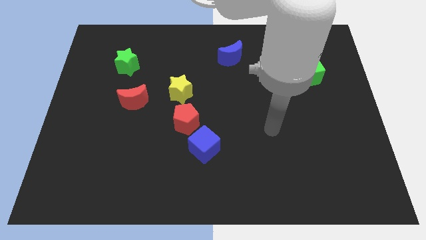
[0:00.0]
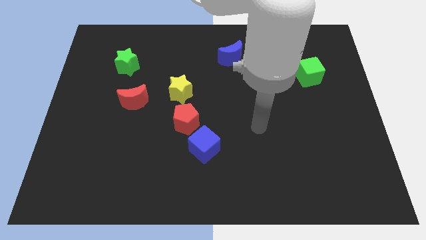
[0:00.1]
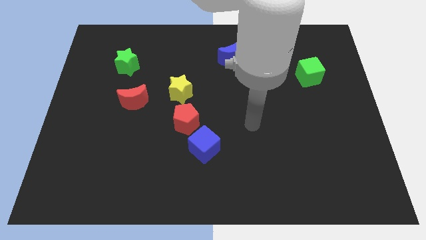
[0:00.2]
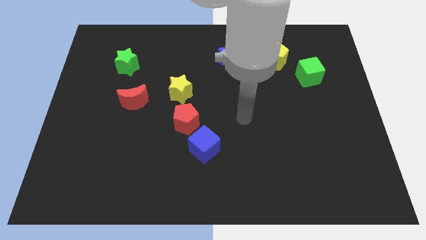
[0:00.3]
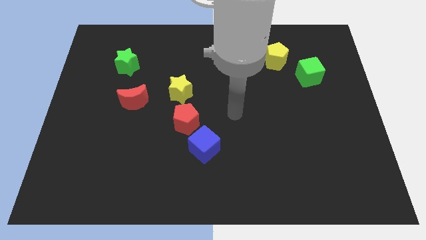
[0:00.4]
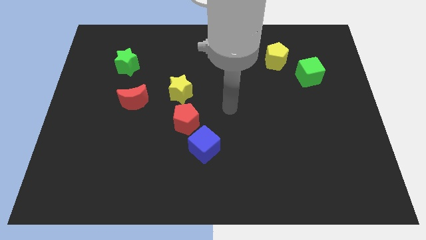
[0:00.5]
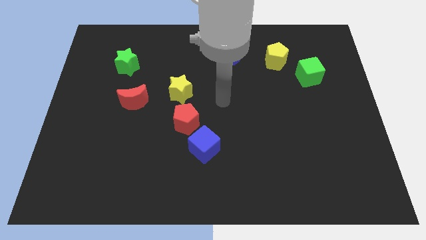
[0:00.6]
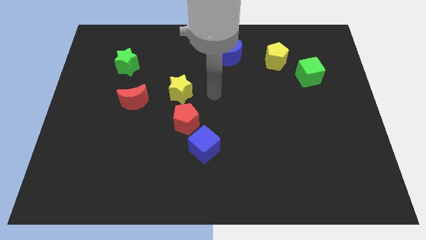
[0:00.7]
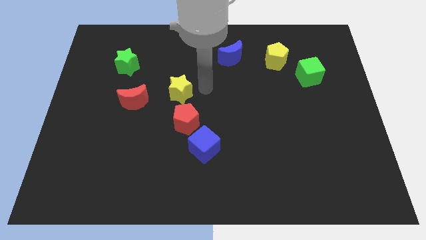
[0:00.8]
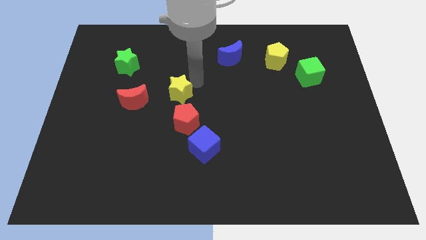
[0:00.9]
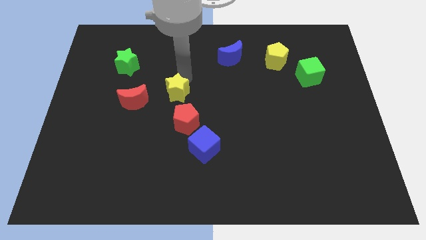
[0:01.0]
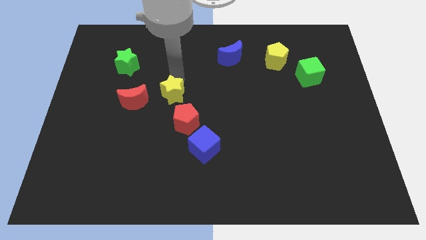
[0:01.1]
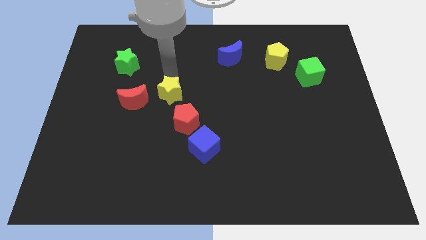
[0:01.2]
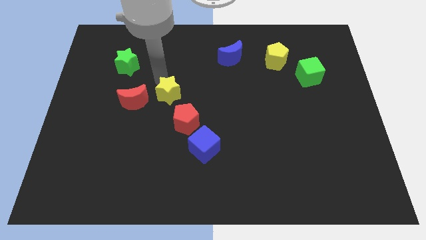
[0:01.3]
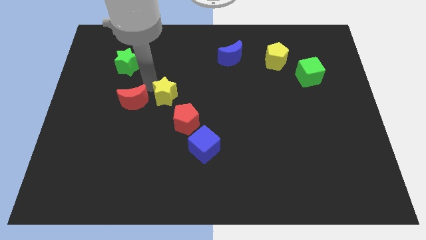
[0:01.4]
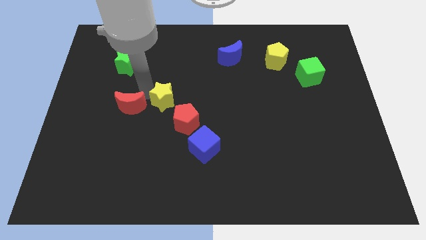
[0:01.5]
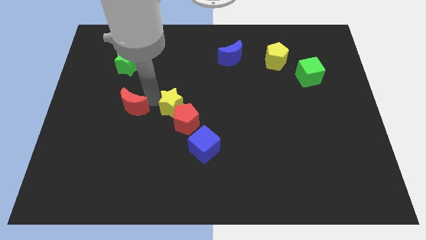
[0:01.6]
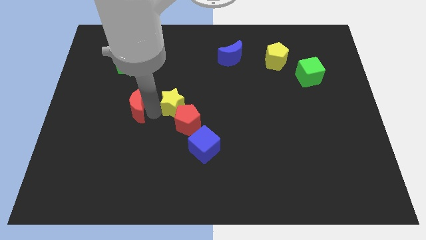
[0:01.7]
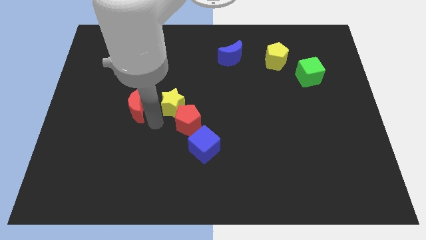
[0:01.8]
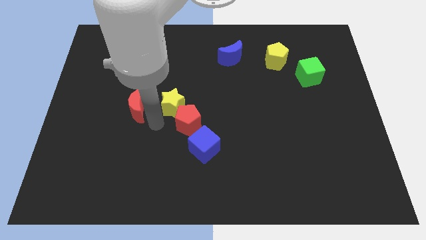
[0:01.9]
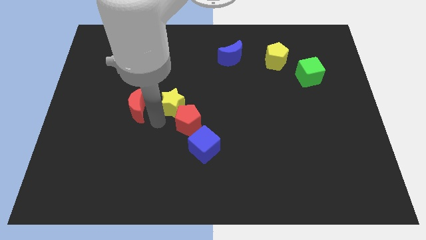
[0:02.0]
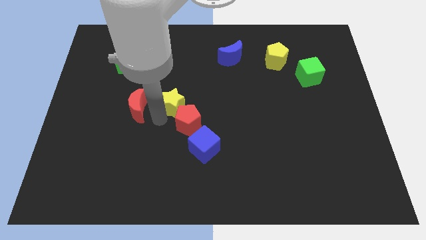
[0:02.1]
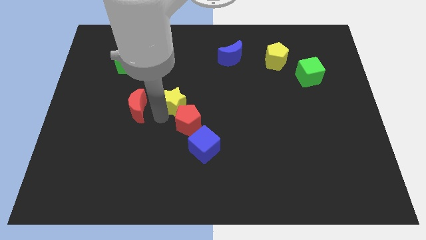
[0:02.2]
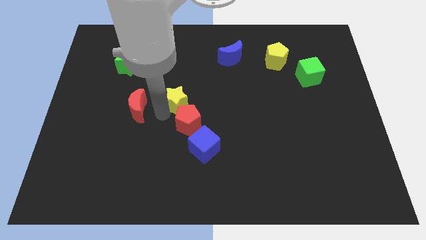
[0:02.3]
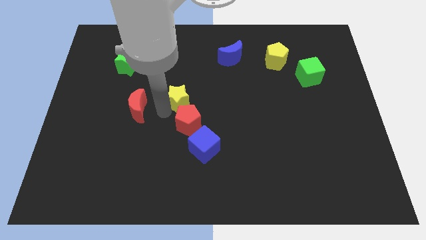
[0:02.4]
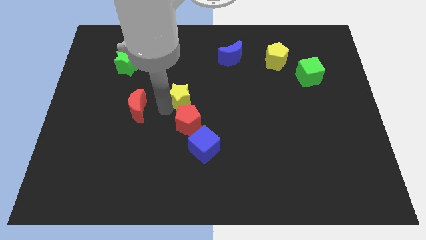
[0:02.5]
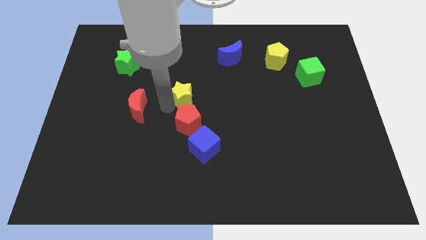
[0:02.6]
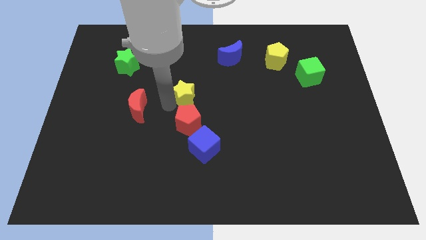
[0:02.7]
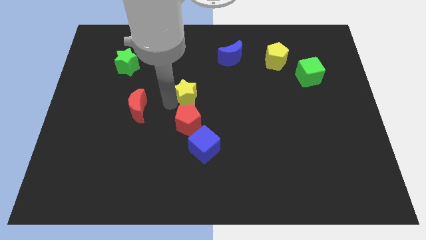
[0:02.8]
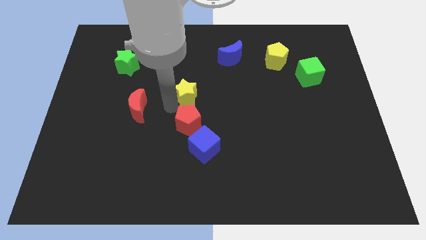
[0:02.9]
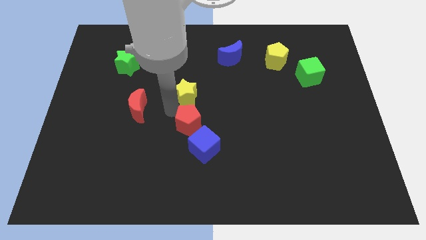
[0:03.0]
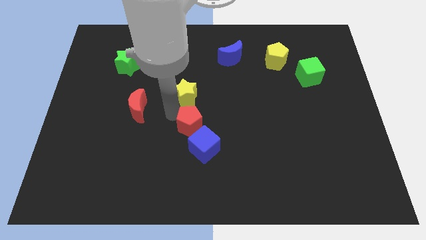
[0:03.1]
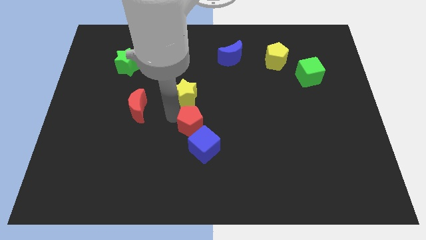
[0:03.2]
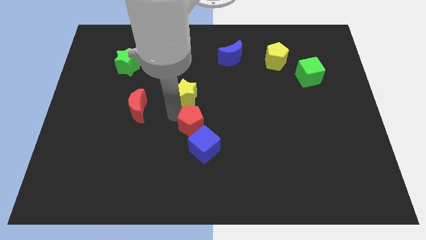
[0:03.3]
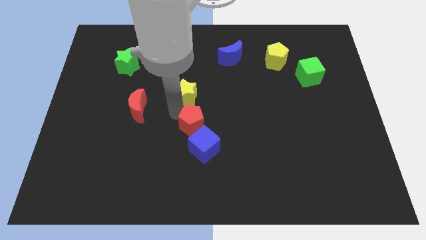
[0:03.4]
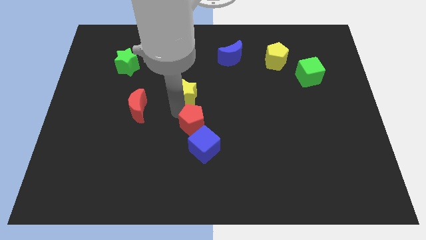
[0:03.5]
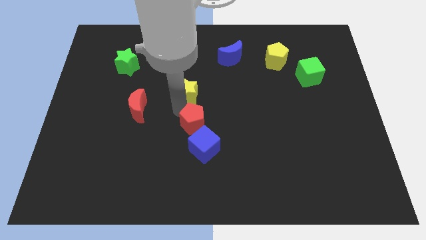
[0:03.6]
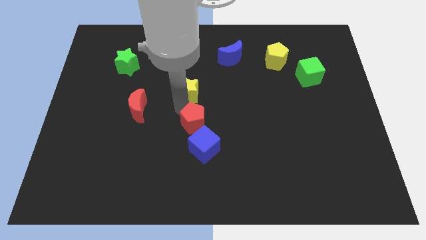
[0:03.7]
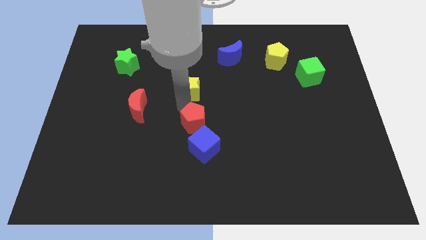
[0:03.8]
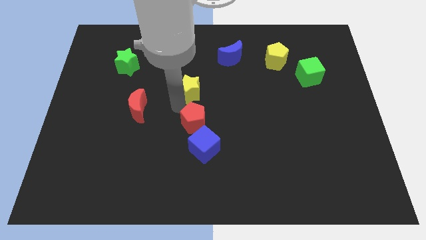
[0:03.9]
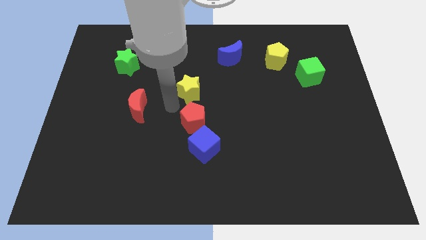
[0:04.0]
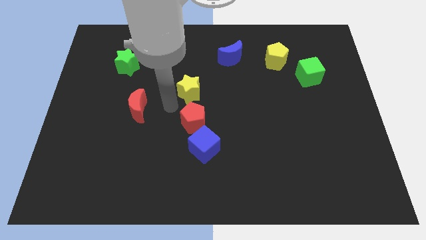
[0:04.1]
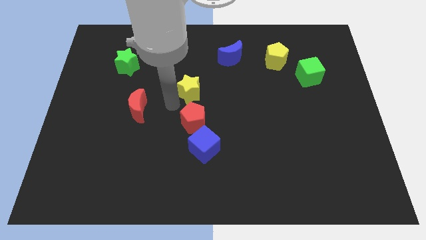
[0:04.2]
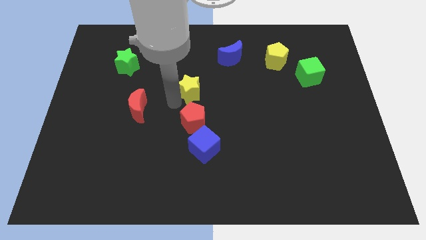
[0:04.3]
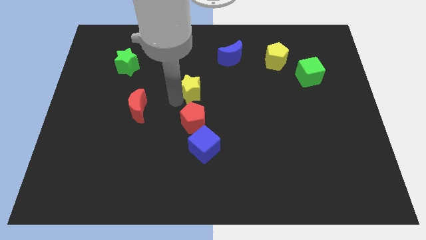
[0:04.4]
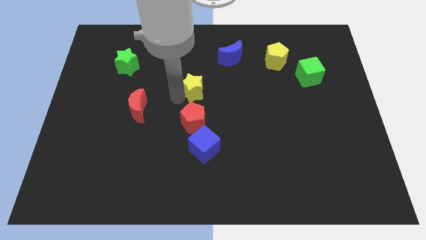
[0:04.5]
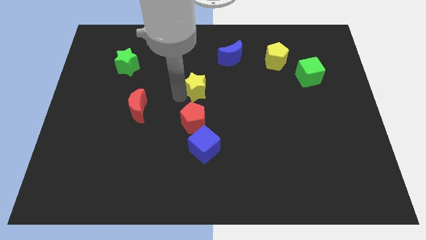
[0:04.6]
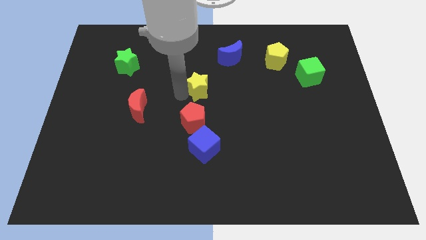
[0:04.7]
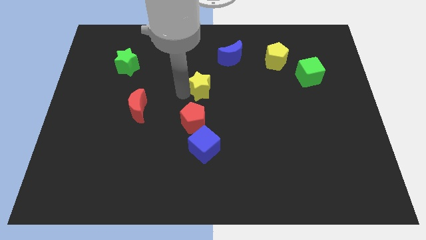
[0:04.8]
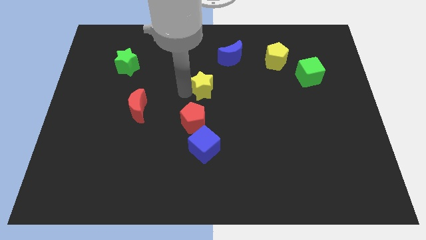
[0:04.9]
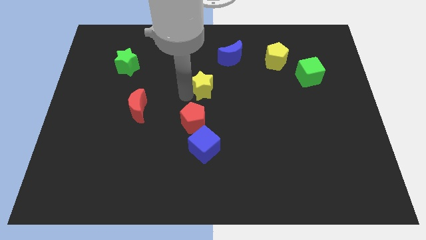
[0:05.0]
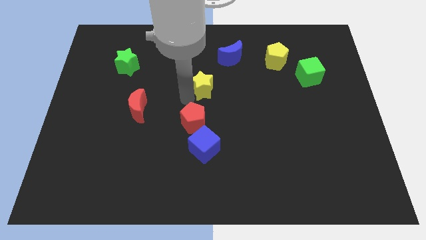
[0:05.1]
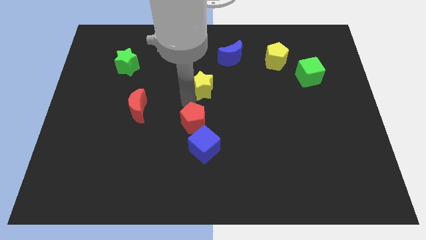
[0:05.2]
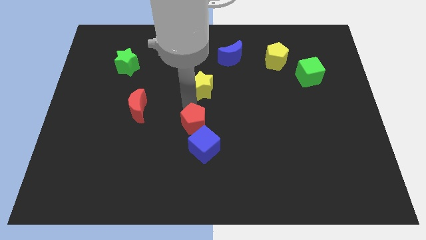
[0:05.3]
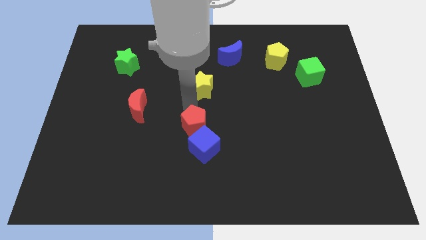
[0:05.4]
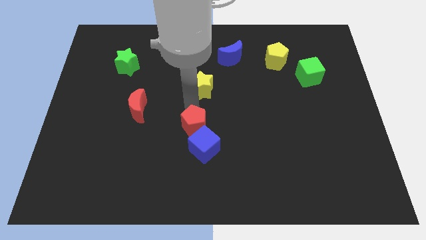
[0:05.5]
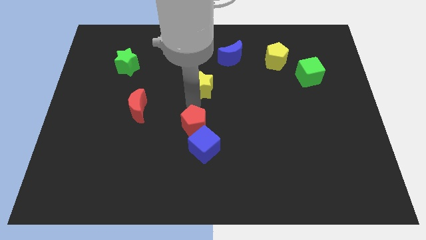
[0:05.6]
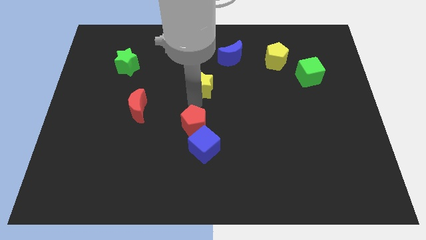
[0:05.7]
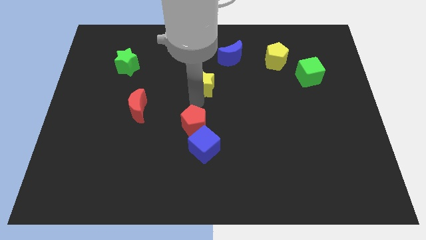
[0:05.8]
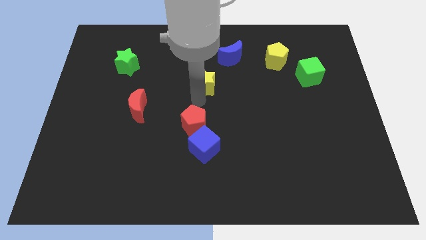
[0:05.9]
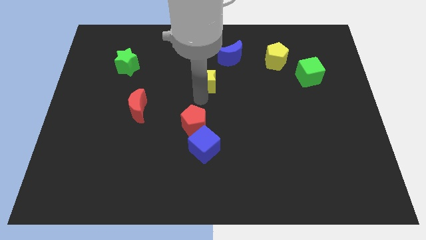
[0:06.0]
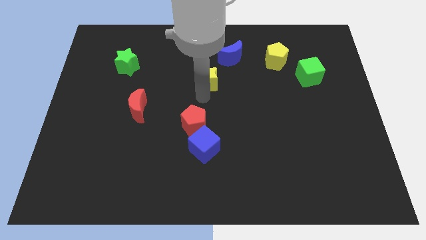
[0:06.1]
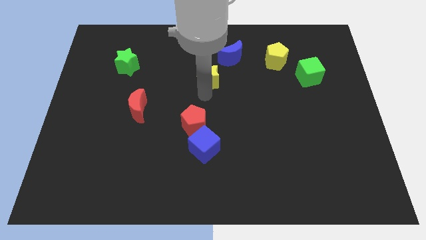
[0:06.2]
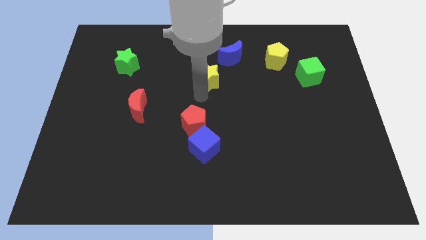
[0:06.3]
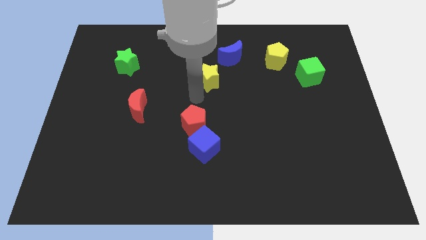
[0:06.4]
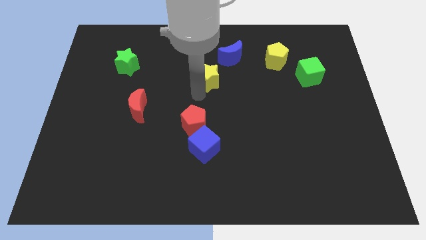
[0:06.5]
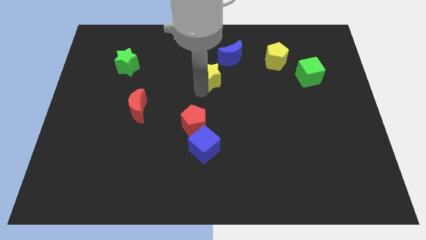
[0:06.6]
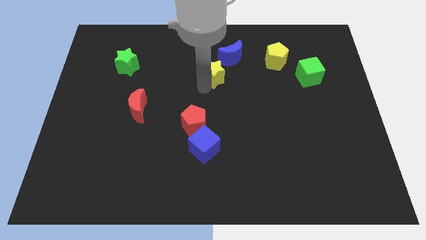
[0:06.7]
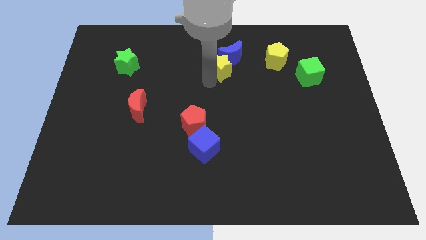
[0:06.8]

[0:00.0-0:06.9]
slide the yellow star to the blue moon

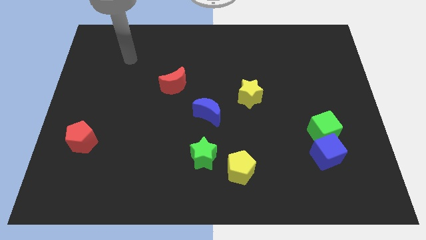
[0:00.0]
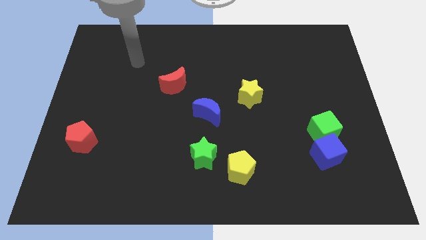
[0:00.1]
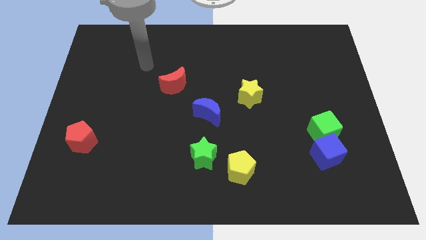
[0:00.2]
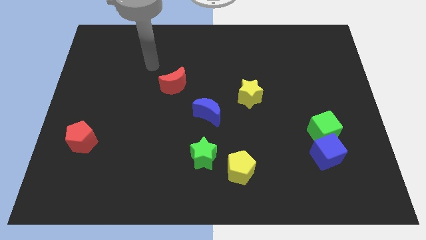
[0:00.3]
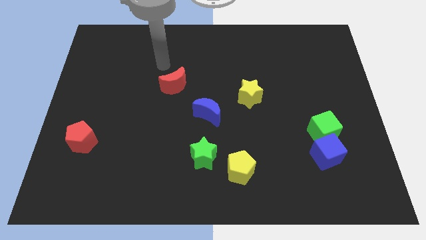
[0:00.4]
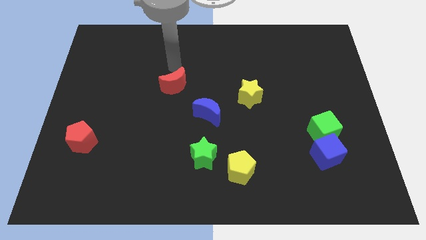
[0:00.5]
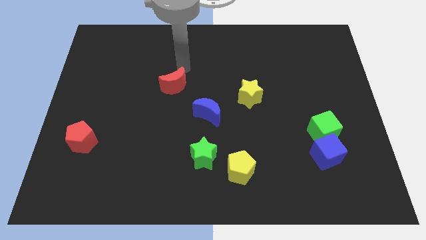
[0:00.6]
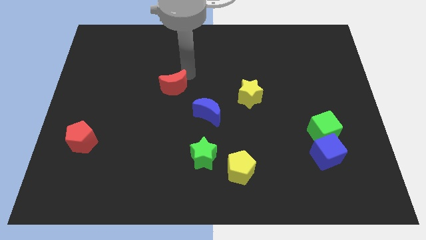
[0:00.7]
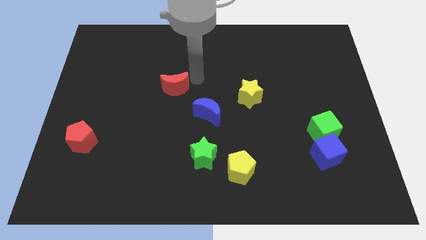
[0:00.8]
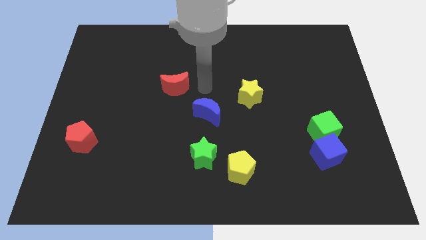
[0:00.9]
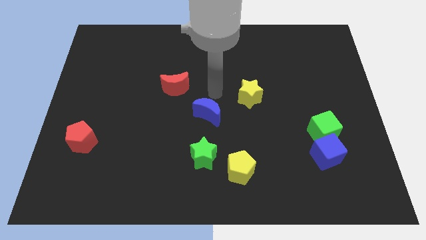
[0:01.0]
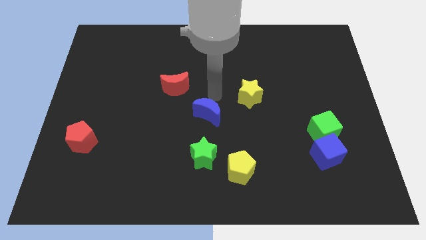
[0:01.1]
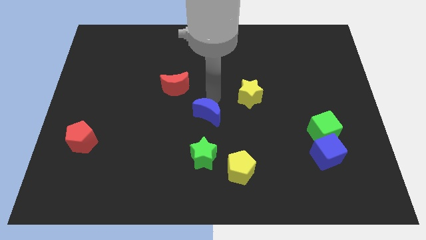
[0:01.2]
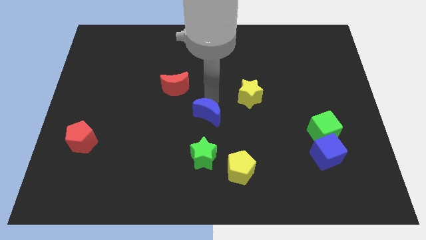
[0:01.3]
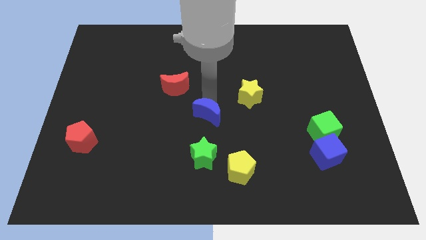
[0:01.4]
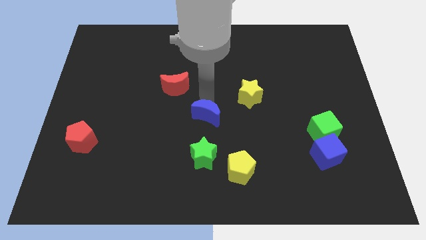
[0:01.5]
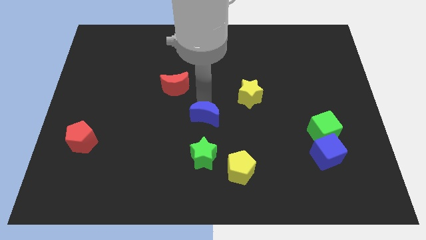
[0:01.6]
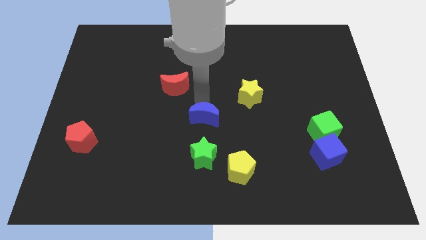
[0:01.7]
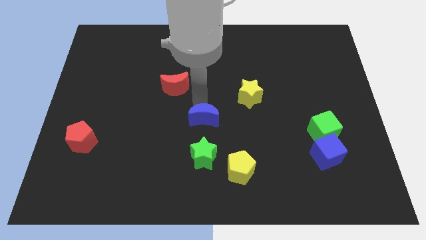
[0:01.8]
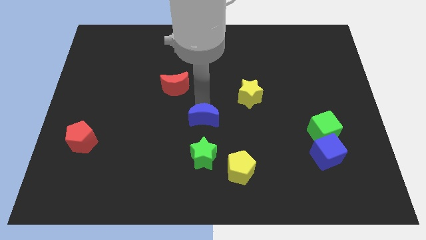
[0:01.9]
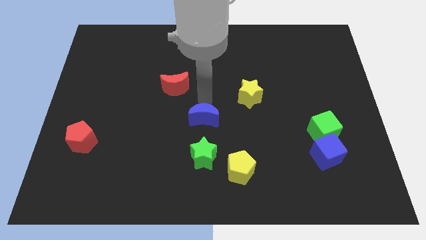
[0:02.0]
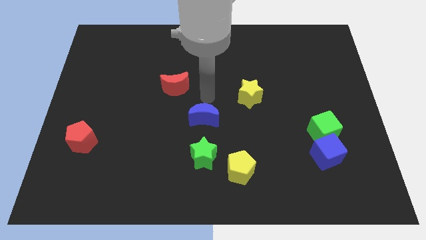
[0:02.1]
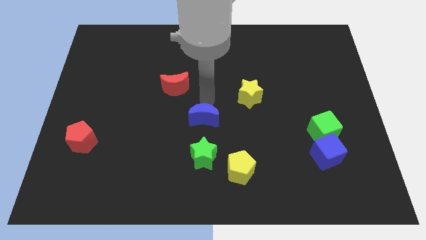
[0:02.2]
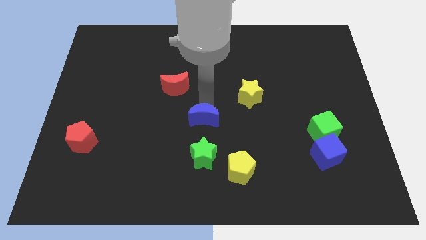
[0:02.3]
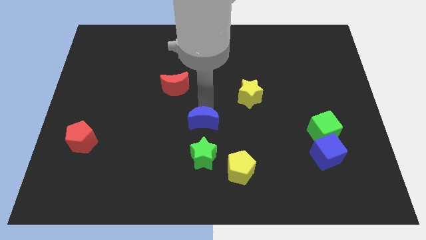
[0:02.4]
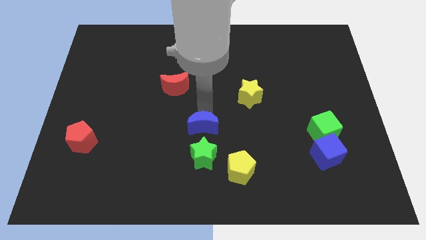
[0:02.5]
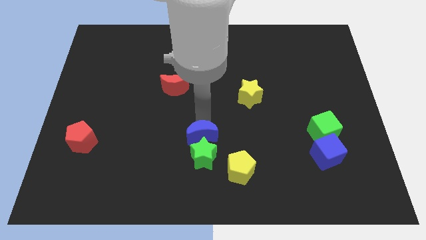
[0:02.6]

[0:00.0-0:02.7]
move the blue moon next to the green star
